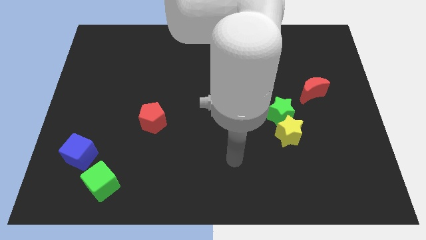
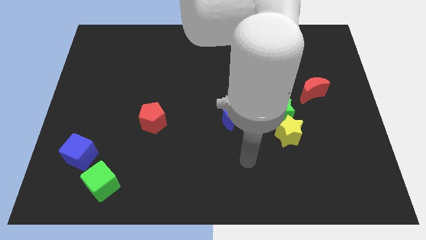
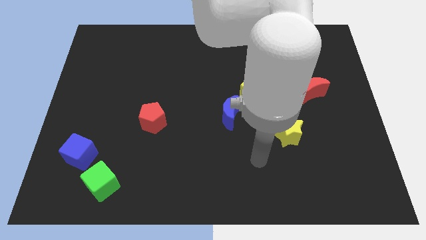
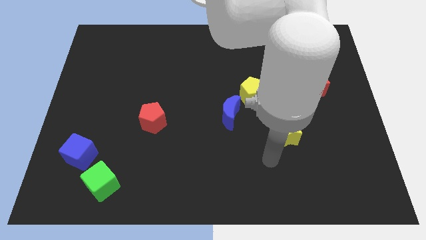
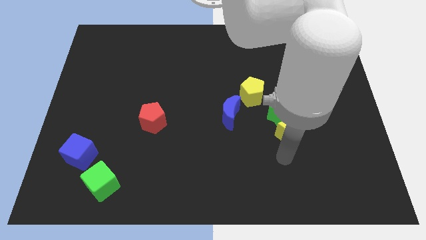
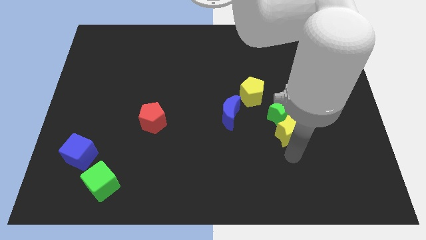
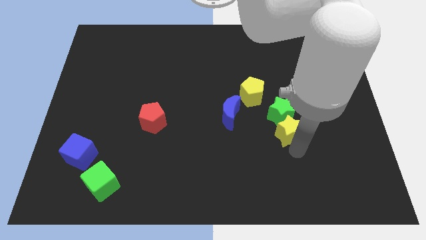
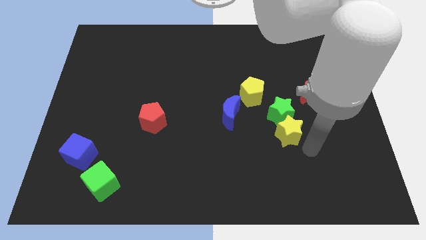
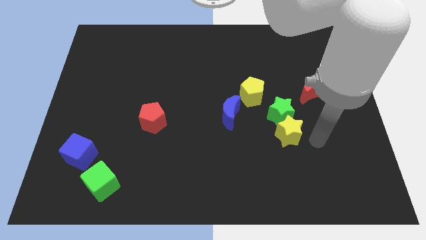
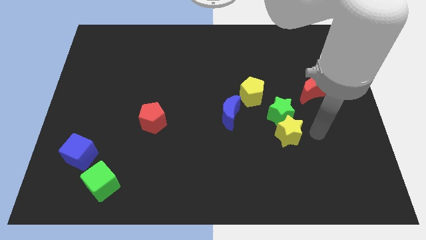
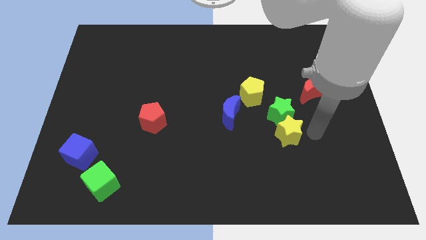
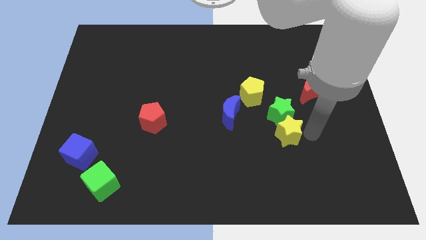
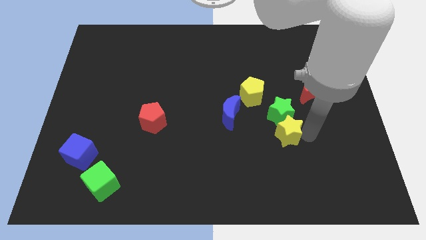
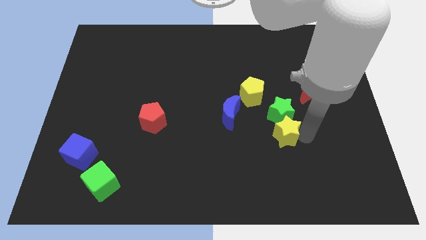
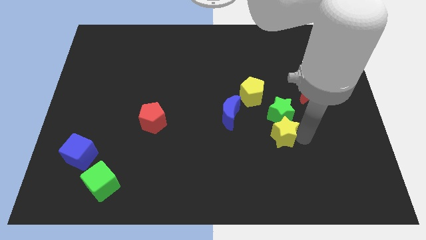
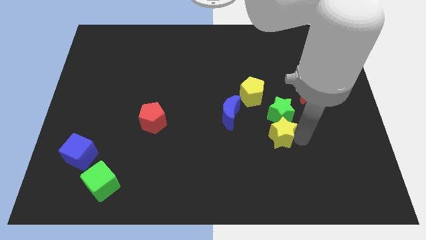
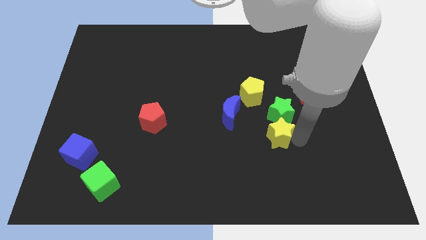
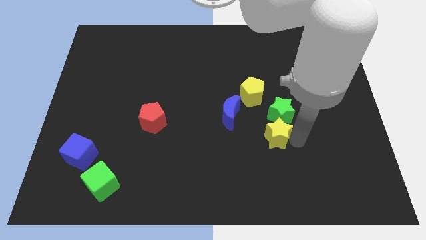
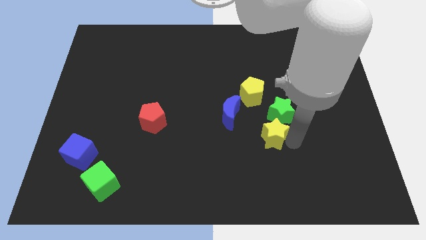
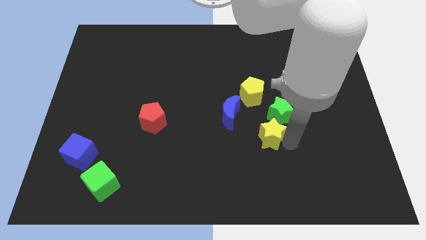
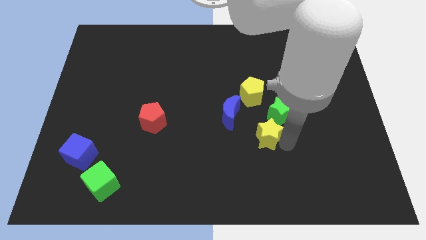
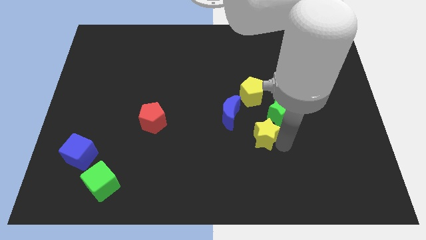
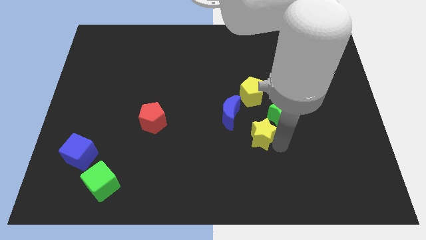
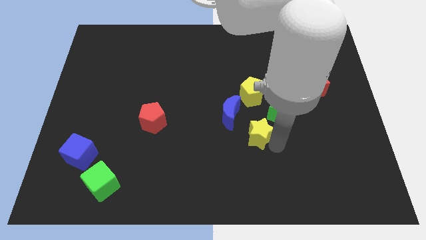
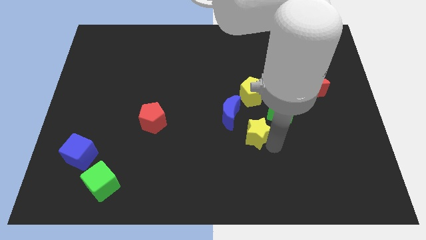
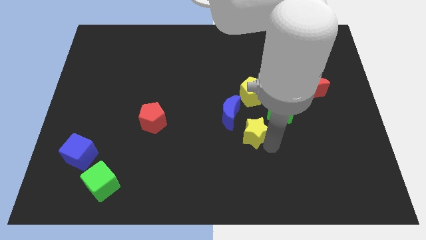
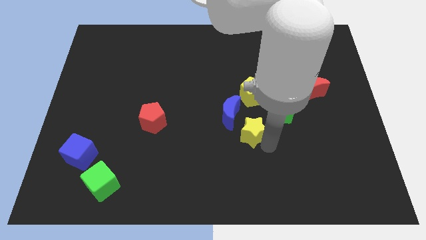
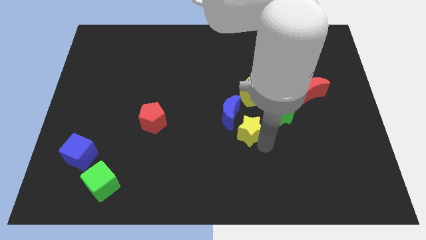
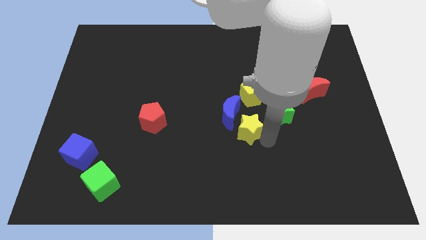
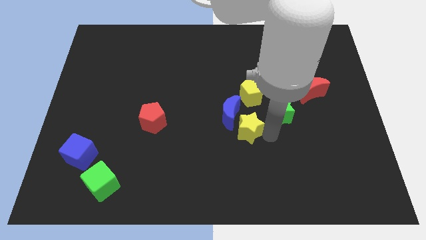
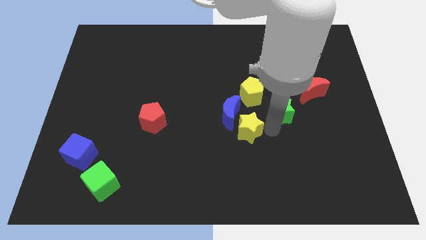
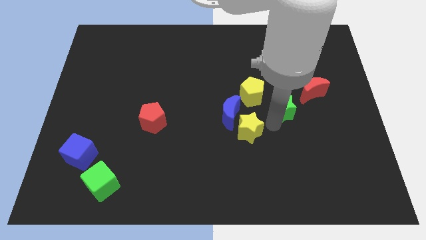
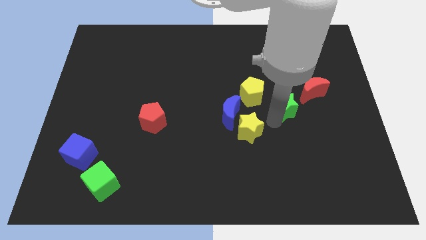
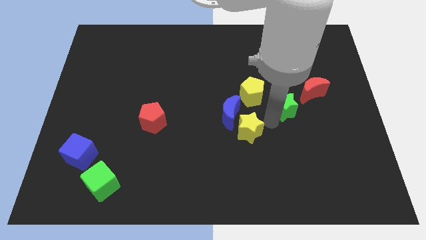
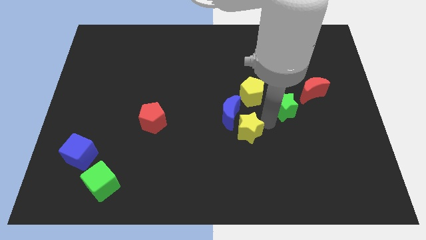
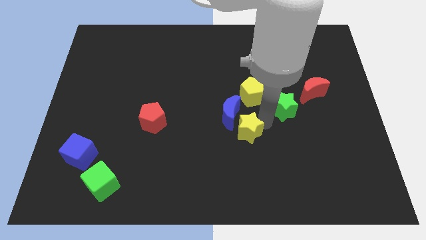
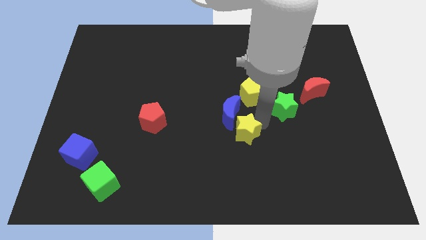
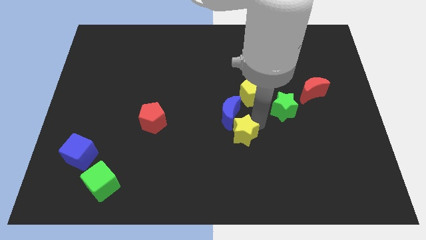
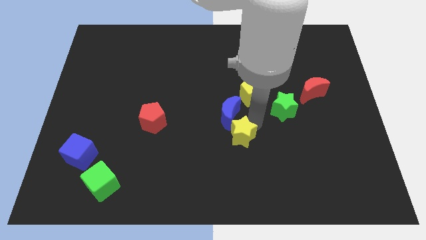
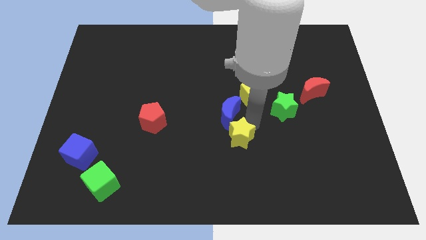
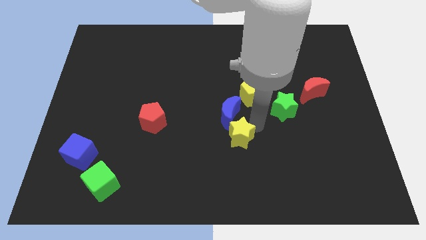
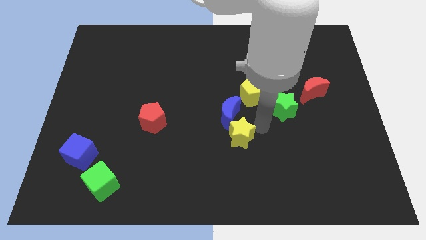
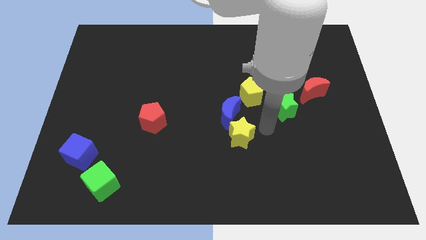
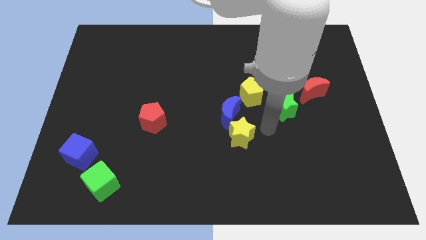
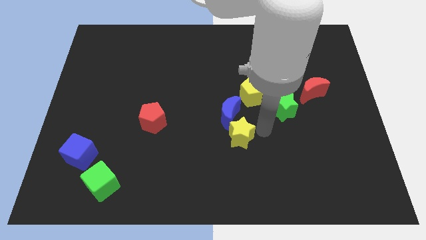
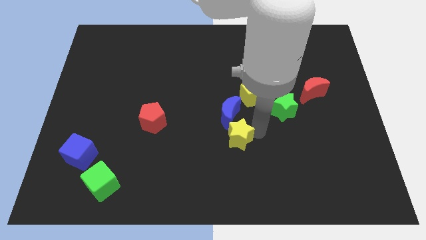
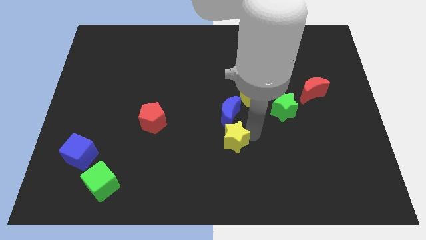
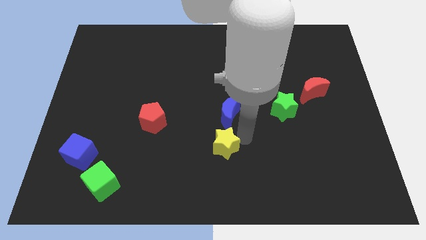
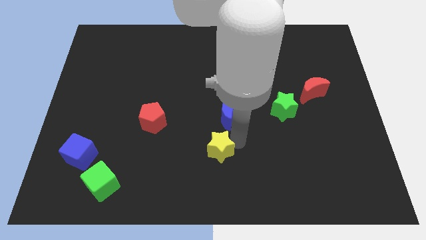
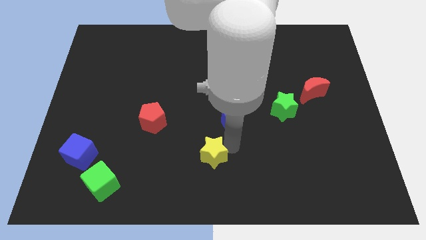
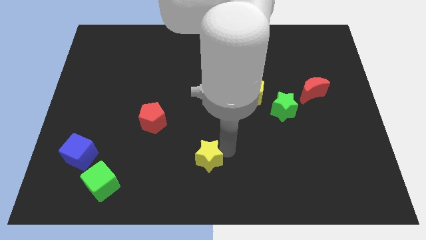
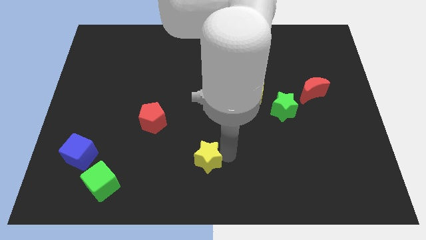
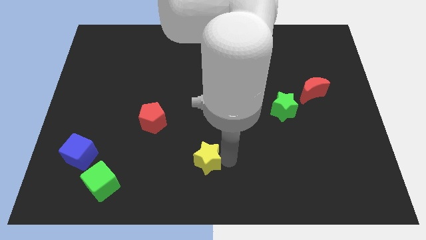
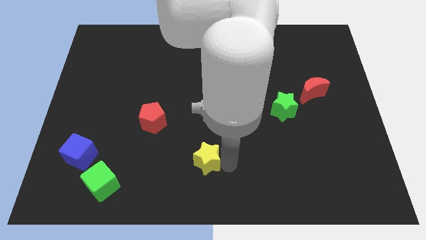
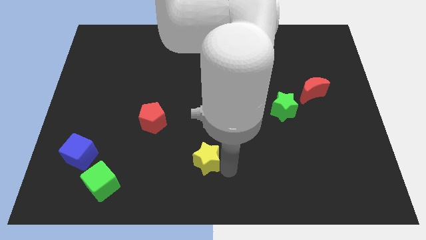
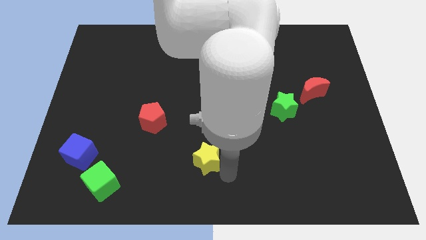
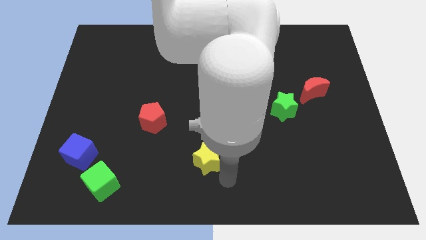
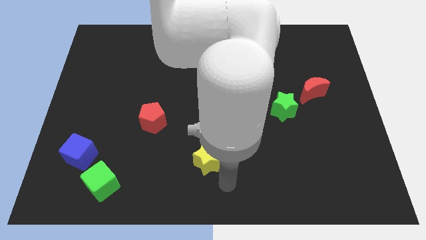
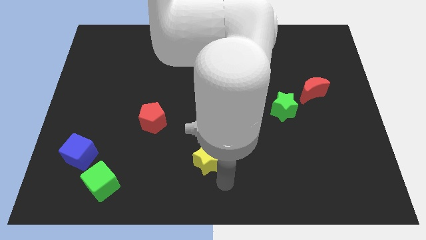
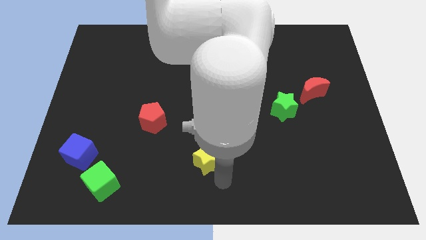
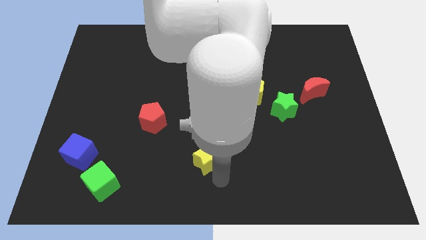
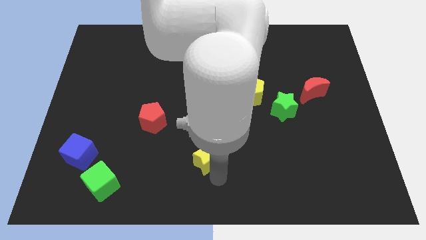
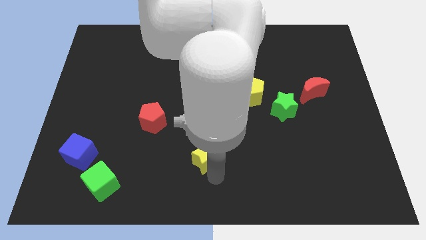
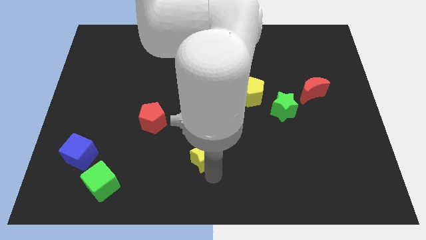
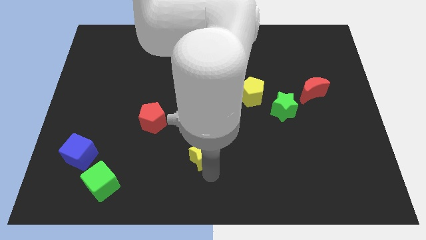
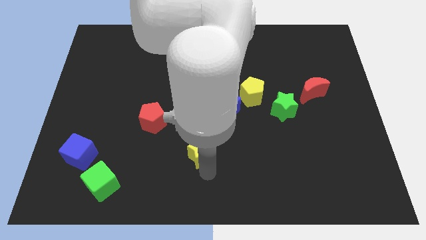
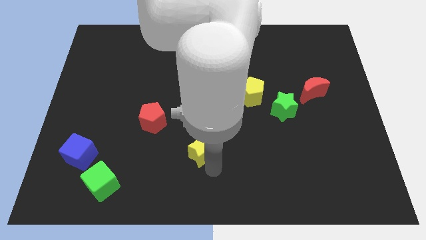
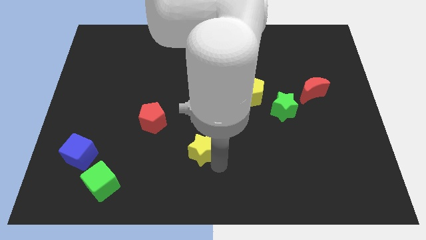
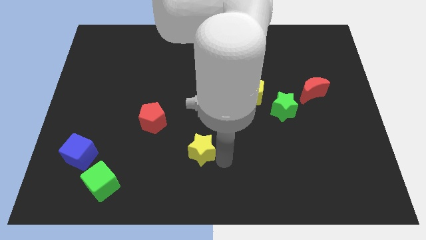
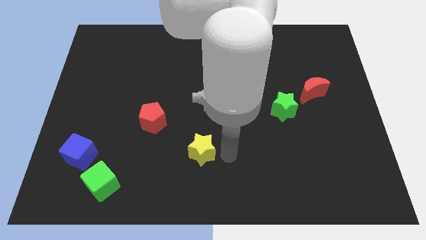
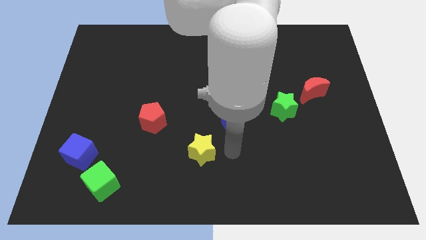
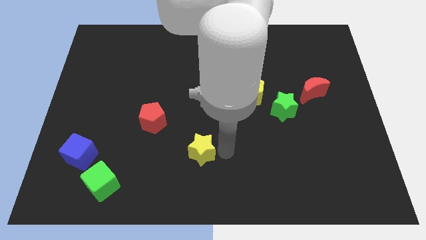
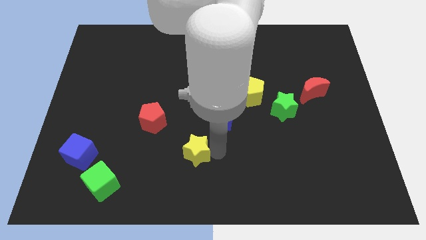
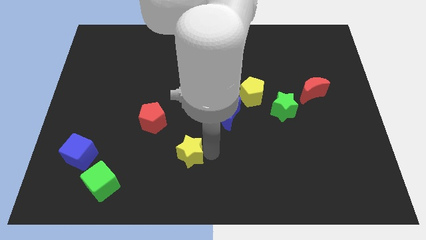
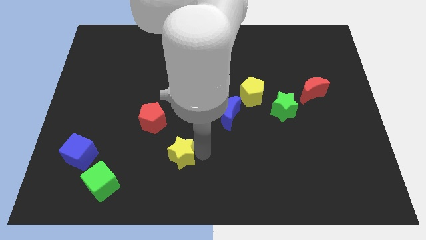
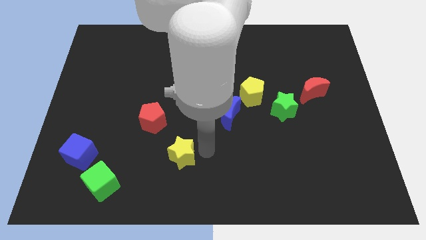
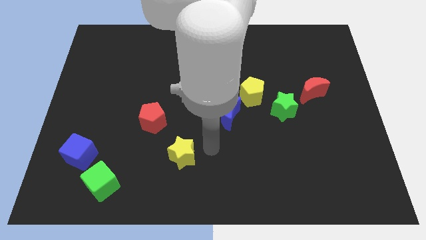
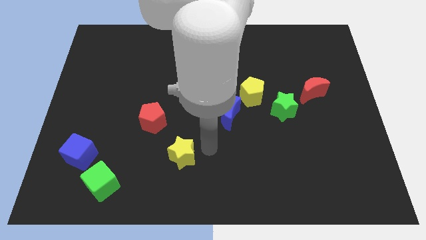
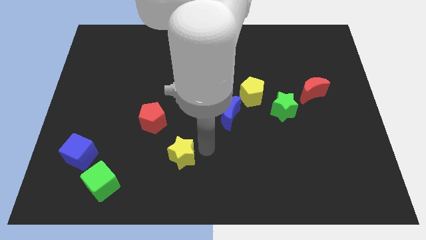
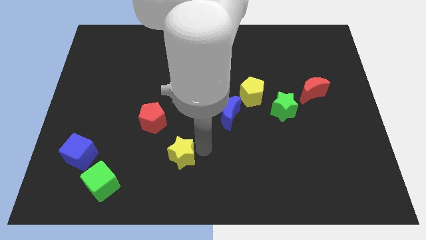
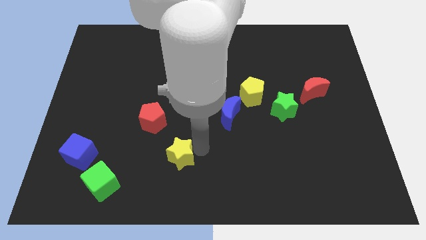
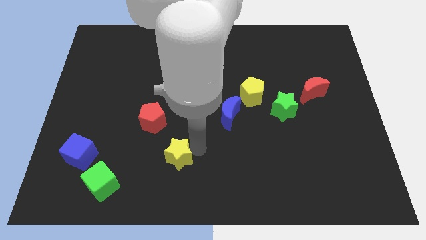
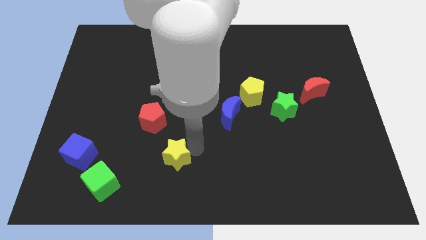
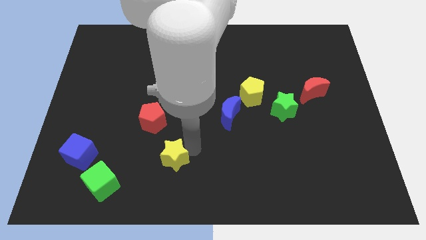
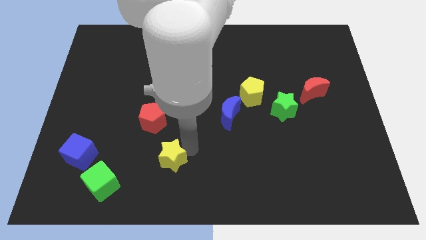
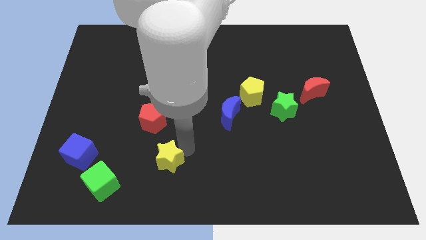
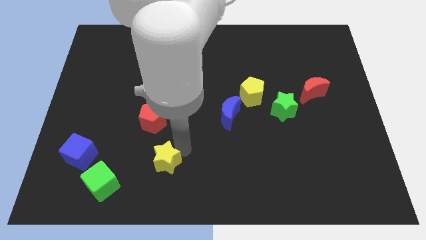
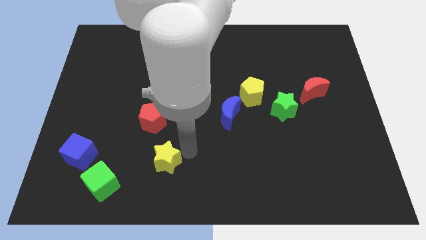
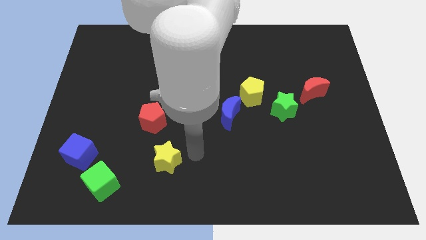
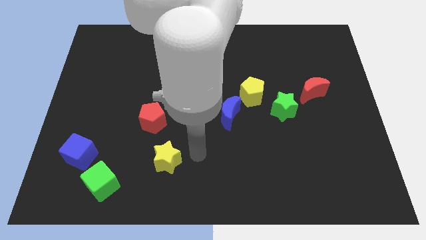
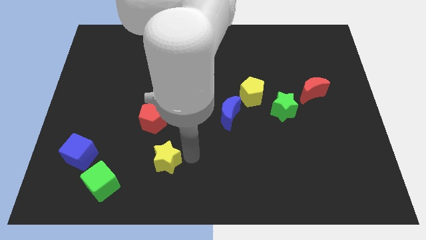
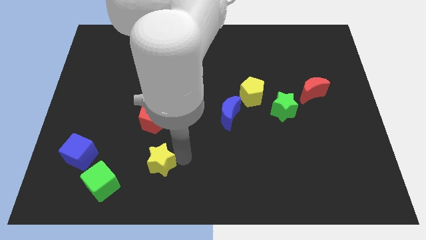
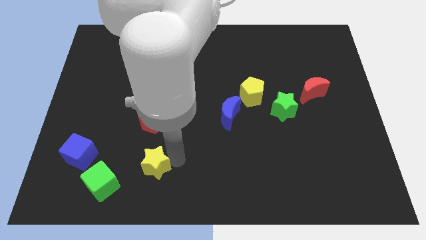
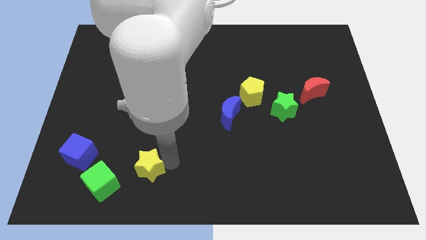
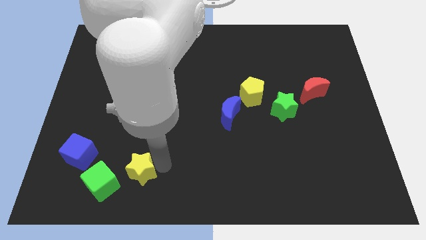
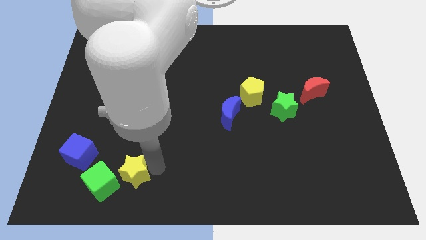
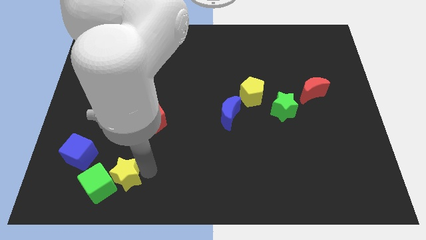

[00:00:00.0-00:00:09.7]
slide the yellow star towards the green cube
